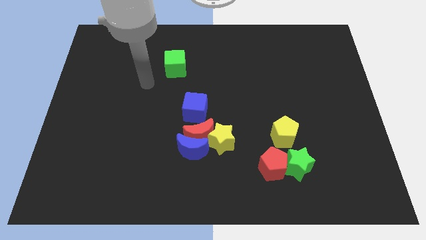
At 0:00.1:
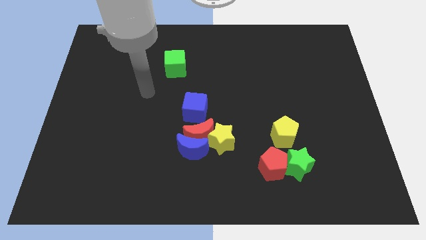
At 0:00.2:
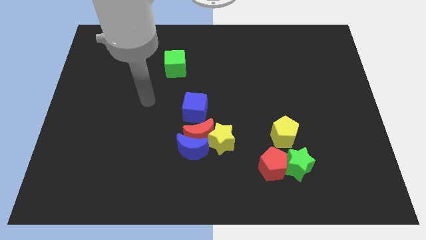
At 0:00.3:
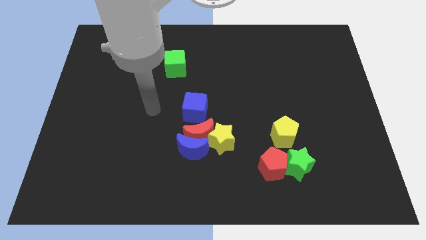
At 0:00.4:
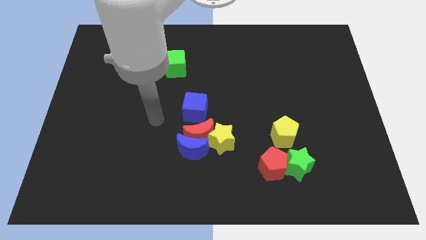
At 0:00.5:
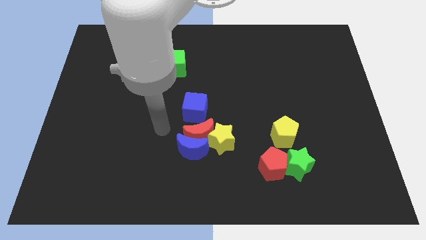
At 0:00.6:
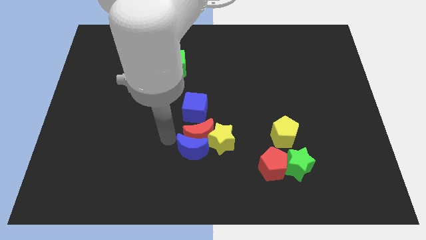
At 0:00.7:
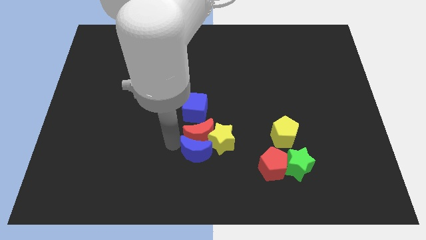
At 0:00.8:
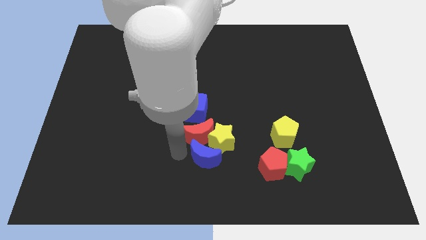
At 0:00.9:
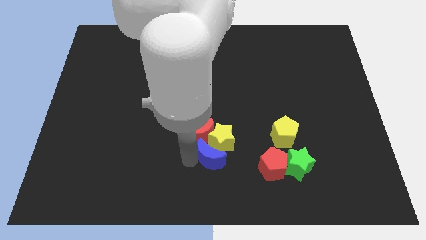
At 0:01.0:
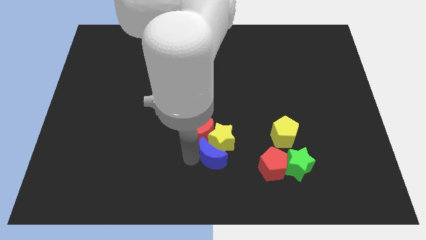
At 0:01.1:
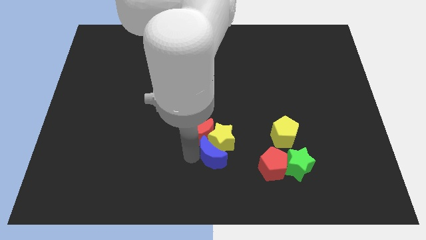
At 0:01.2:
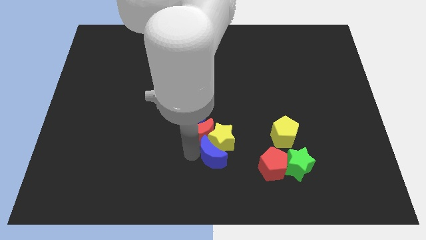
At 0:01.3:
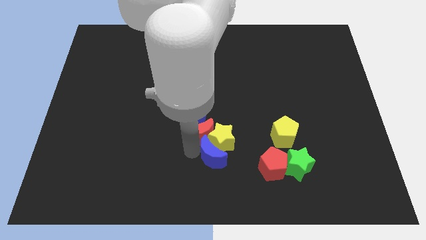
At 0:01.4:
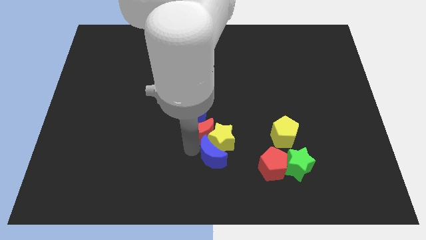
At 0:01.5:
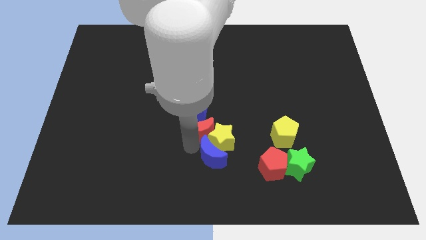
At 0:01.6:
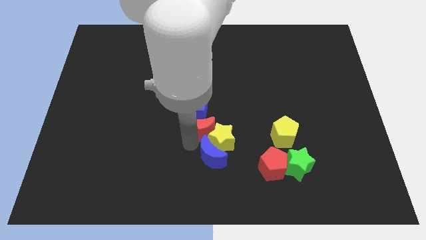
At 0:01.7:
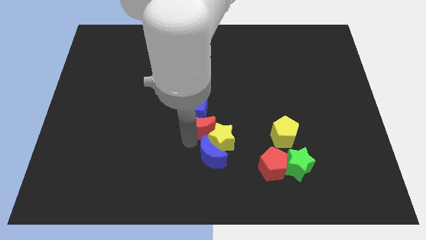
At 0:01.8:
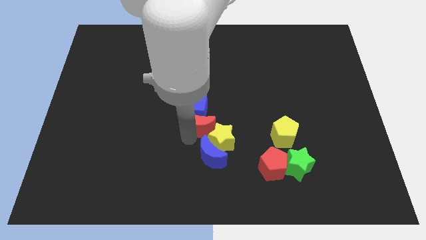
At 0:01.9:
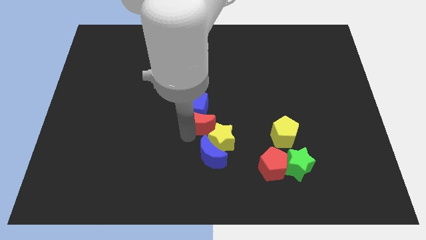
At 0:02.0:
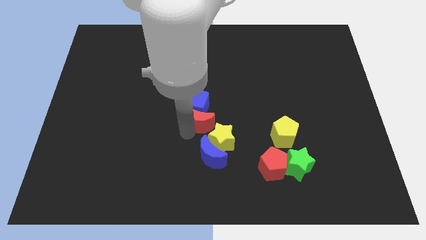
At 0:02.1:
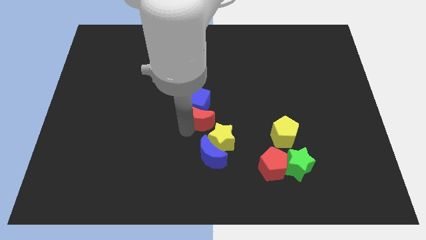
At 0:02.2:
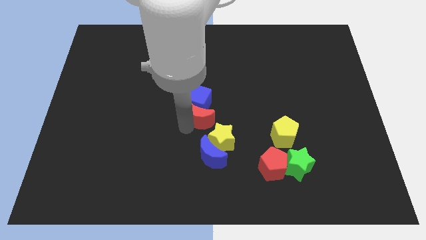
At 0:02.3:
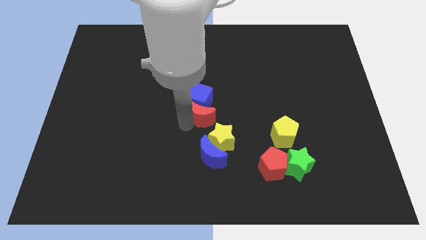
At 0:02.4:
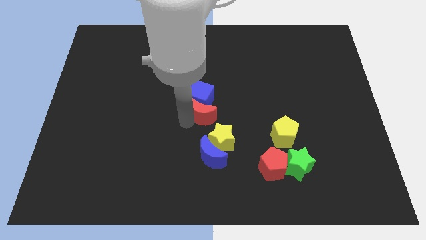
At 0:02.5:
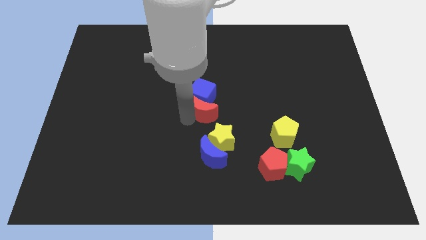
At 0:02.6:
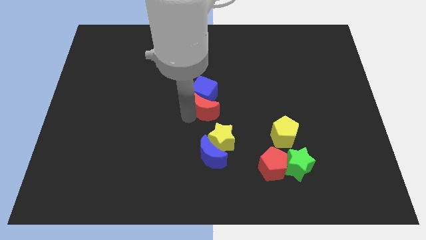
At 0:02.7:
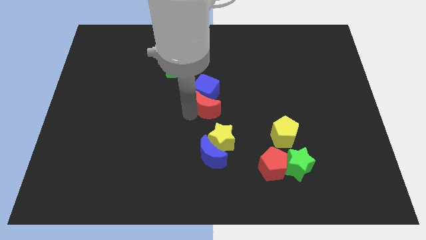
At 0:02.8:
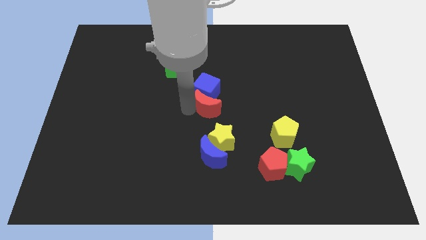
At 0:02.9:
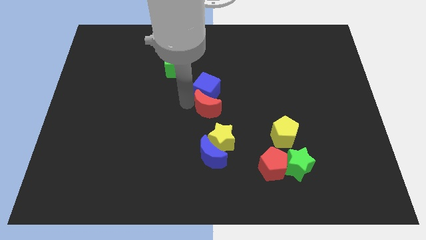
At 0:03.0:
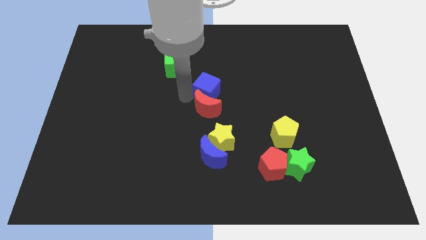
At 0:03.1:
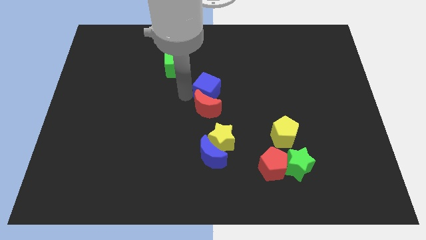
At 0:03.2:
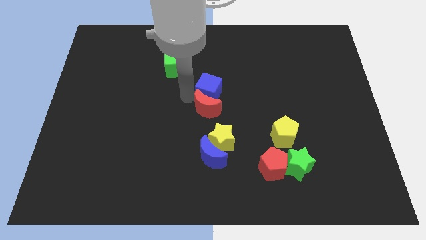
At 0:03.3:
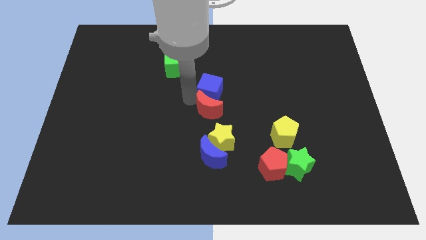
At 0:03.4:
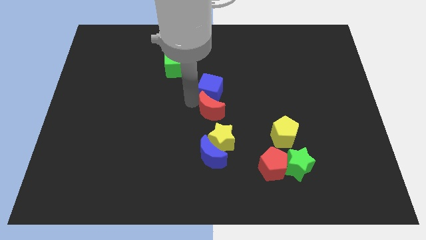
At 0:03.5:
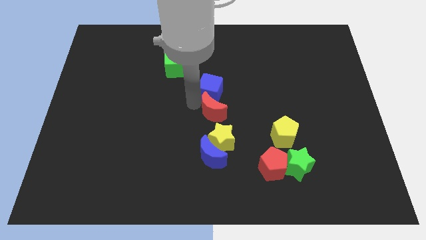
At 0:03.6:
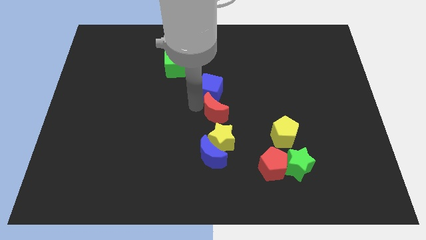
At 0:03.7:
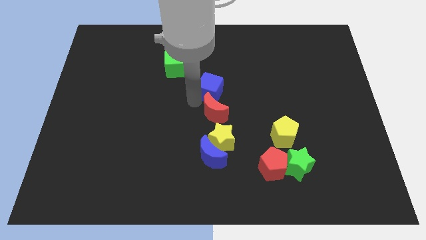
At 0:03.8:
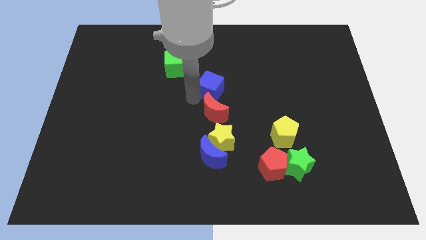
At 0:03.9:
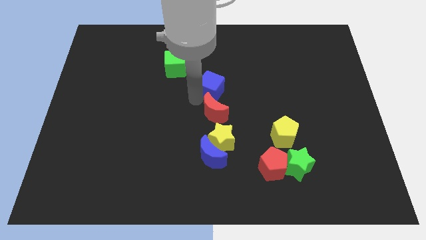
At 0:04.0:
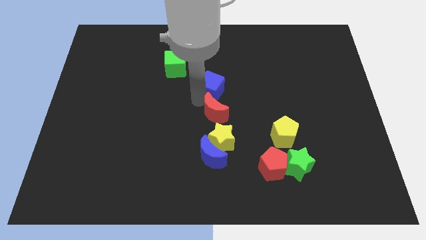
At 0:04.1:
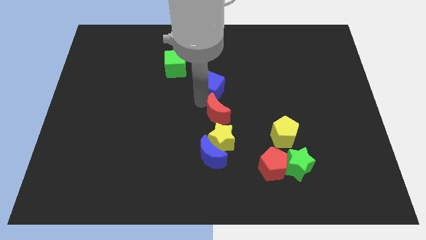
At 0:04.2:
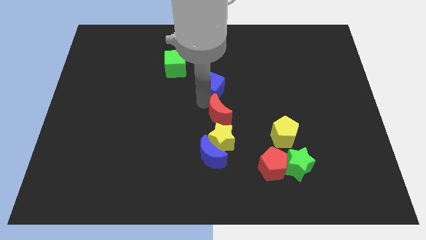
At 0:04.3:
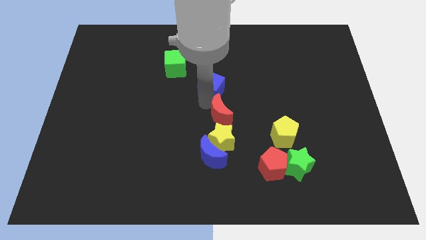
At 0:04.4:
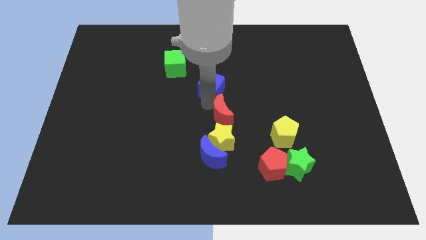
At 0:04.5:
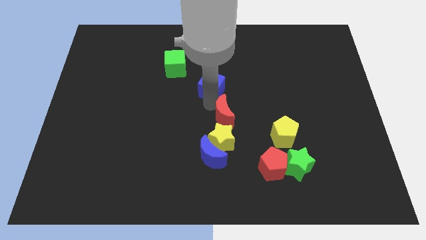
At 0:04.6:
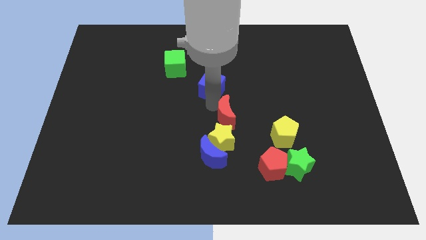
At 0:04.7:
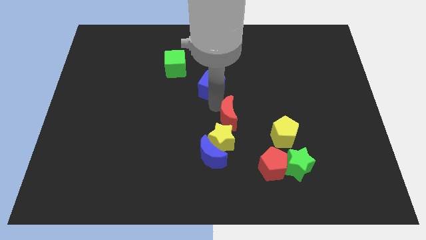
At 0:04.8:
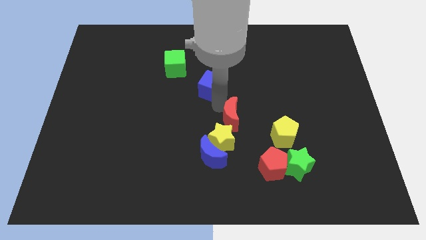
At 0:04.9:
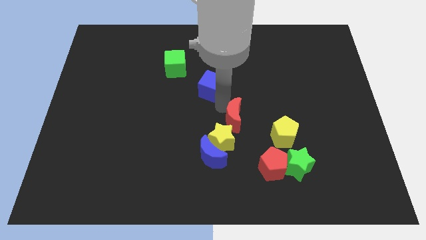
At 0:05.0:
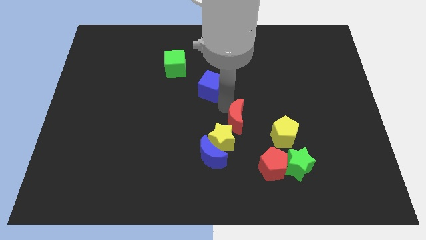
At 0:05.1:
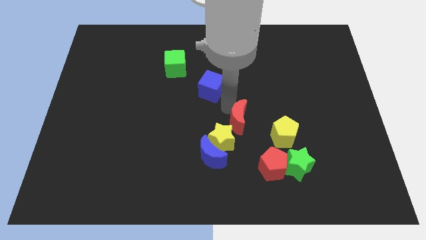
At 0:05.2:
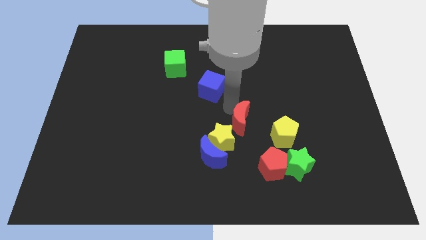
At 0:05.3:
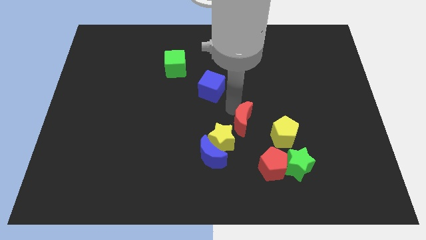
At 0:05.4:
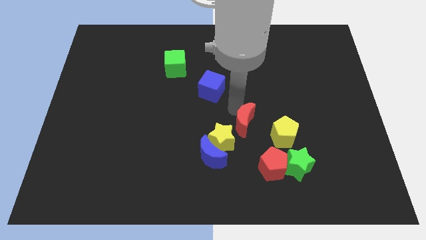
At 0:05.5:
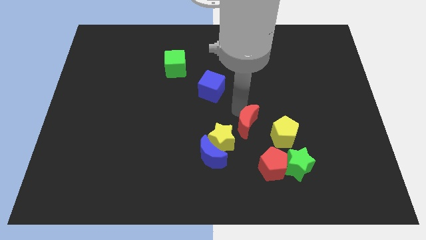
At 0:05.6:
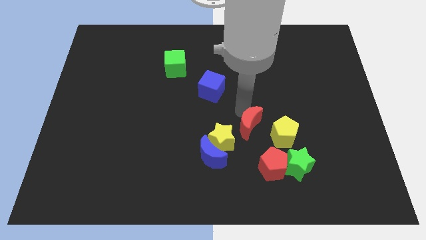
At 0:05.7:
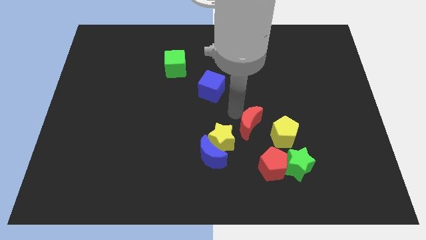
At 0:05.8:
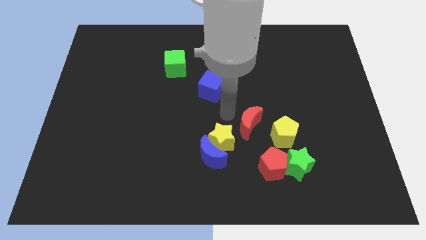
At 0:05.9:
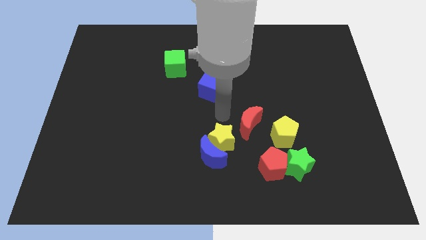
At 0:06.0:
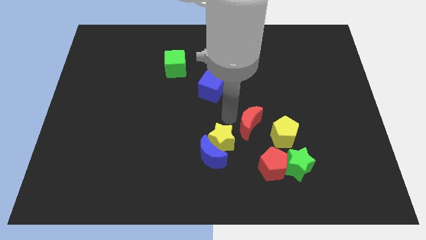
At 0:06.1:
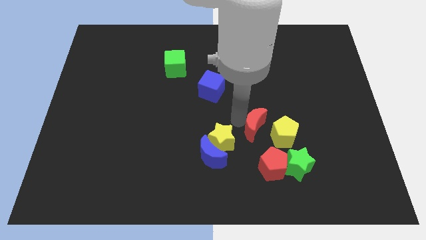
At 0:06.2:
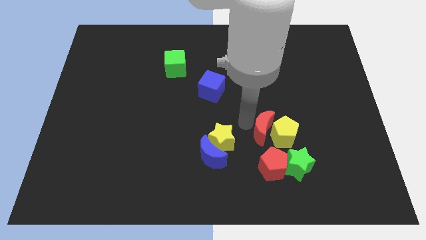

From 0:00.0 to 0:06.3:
move the red moon towards the yellow pentagon

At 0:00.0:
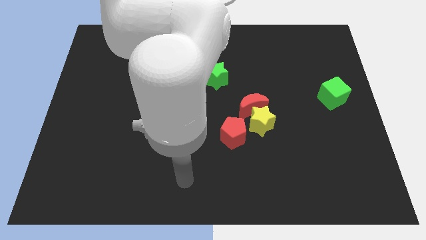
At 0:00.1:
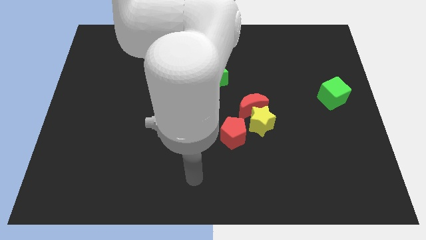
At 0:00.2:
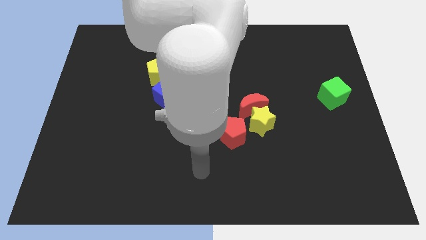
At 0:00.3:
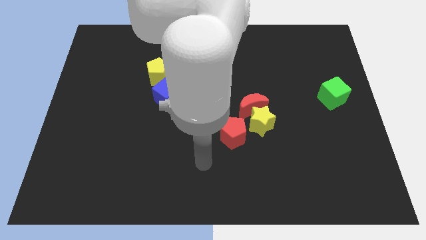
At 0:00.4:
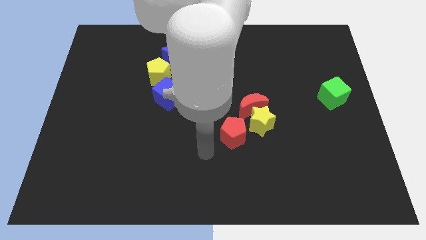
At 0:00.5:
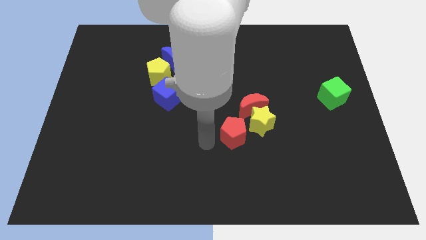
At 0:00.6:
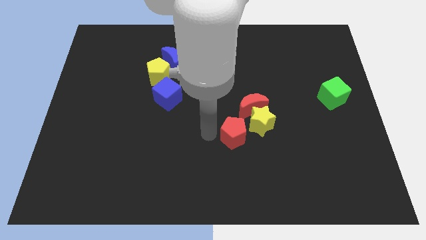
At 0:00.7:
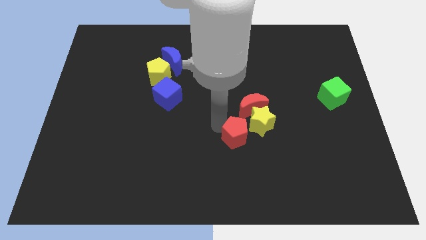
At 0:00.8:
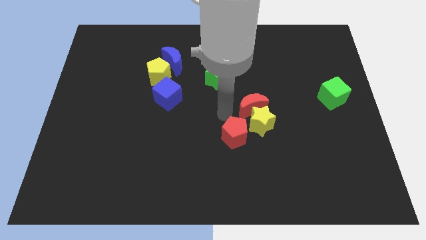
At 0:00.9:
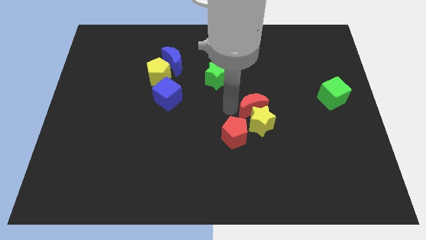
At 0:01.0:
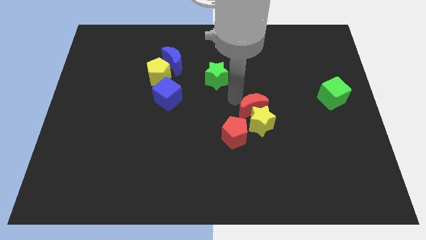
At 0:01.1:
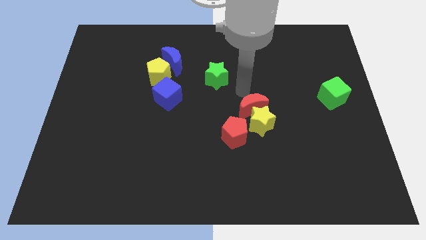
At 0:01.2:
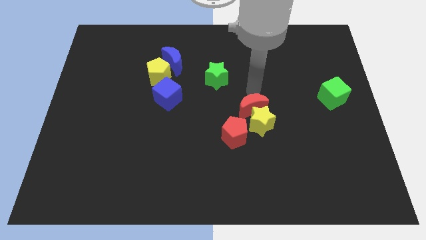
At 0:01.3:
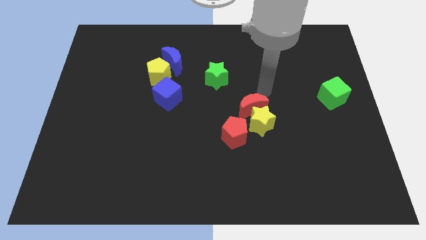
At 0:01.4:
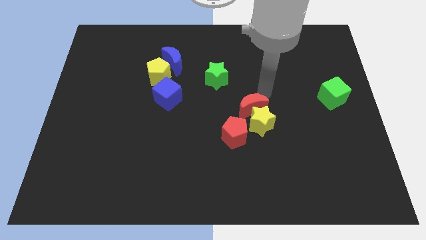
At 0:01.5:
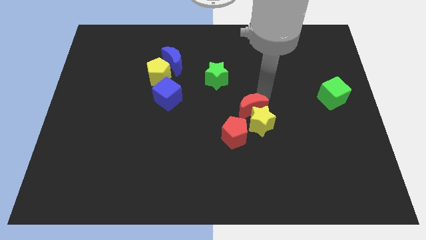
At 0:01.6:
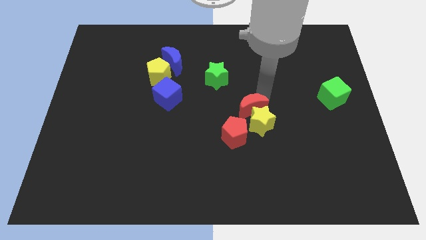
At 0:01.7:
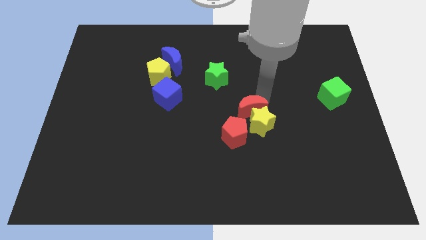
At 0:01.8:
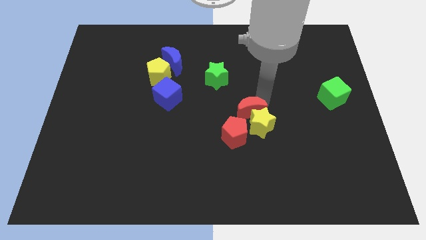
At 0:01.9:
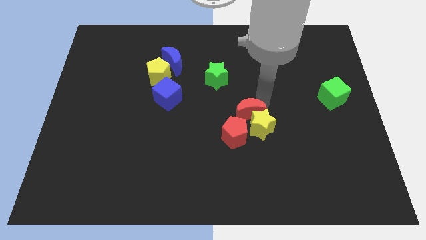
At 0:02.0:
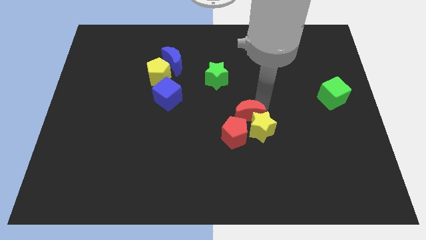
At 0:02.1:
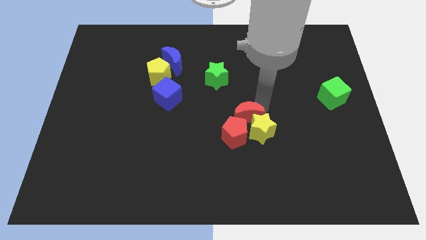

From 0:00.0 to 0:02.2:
push the red moon close to the red pentagon
